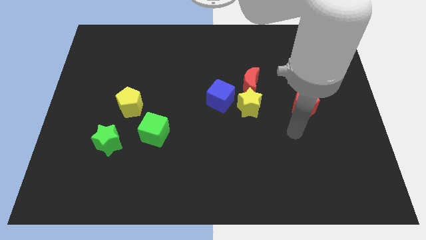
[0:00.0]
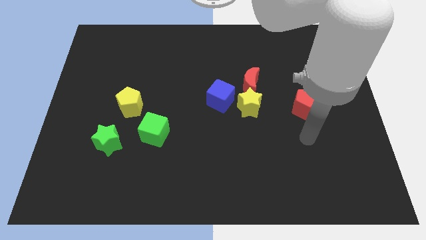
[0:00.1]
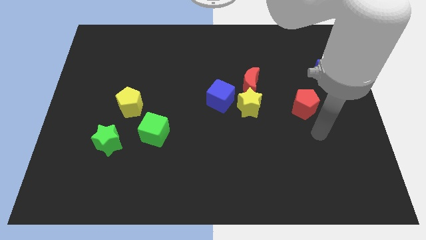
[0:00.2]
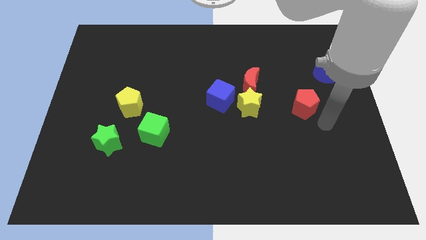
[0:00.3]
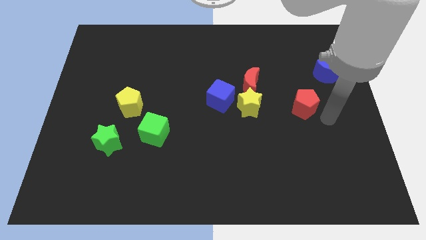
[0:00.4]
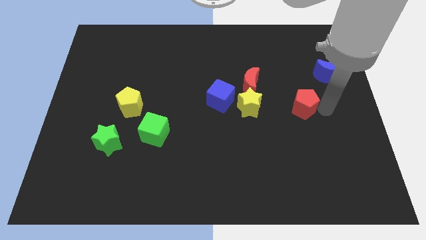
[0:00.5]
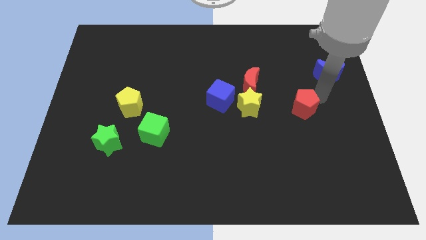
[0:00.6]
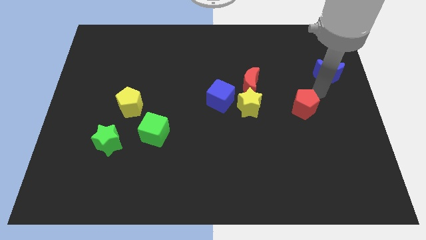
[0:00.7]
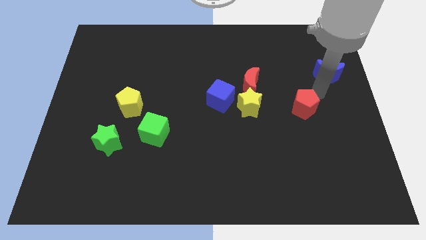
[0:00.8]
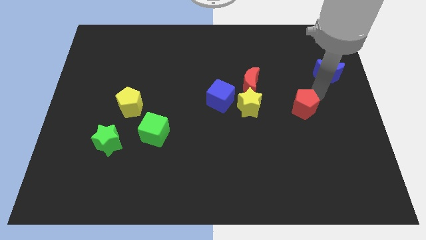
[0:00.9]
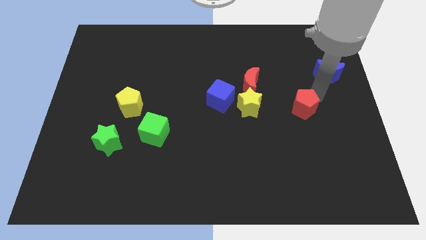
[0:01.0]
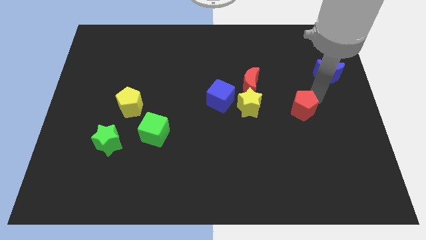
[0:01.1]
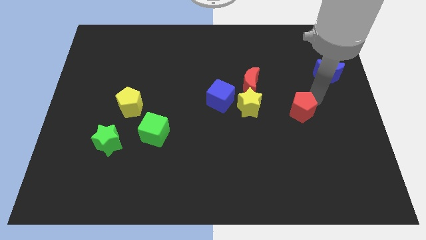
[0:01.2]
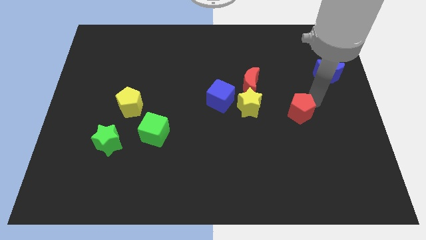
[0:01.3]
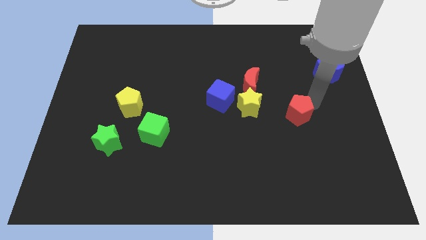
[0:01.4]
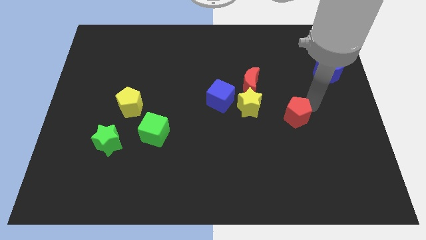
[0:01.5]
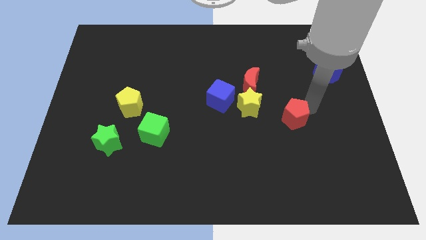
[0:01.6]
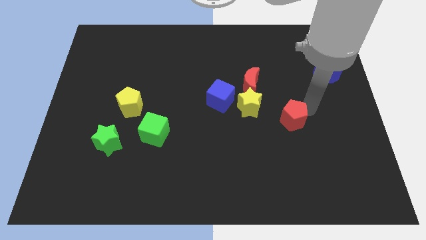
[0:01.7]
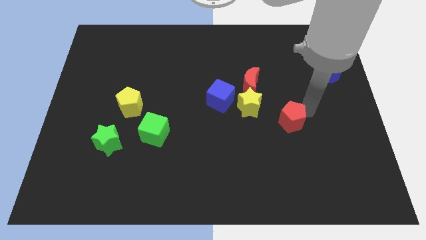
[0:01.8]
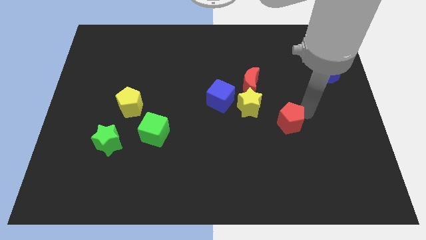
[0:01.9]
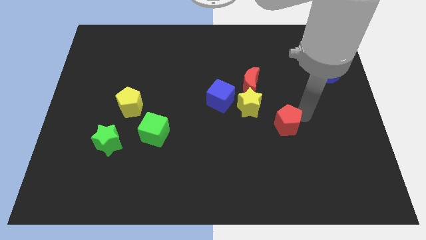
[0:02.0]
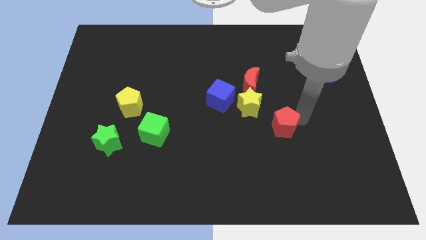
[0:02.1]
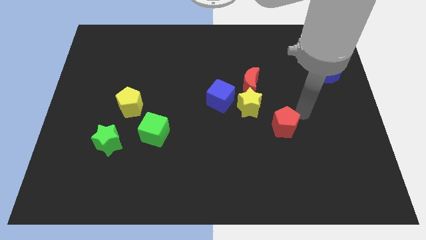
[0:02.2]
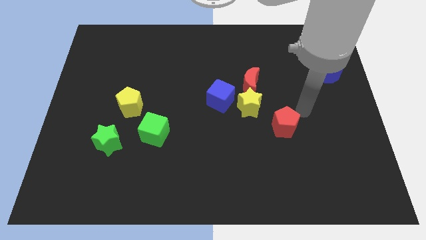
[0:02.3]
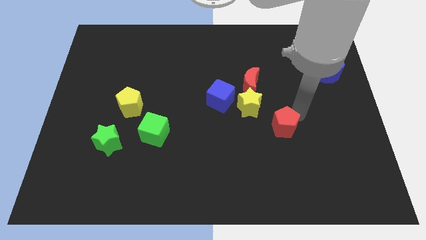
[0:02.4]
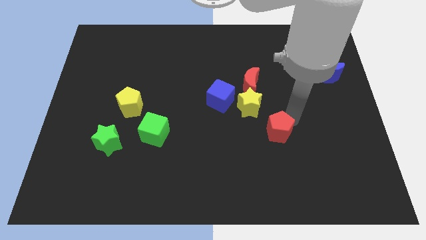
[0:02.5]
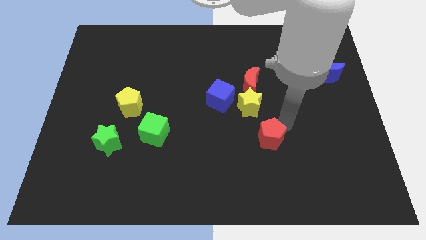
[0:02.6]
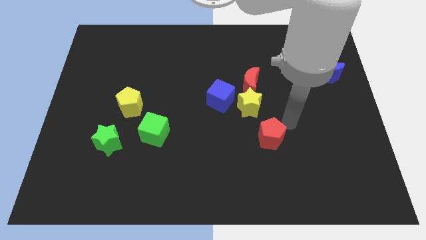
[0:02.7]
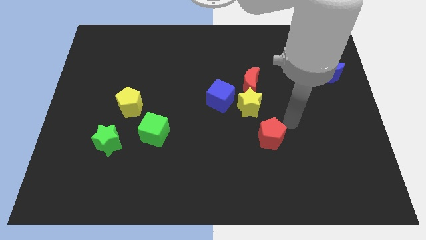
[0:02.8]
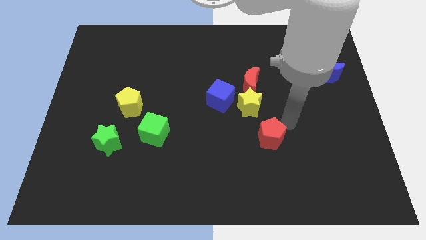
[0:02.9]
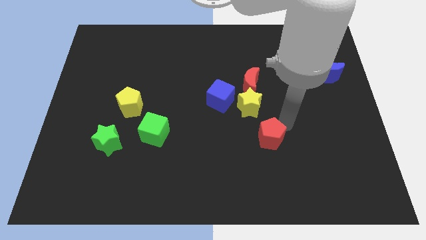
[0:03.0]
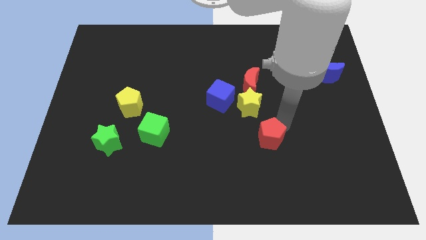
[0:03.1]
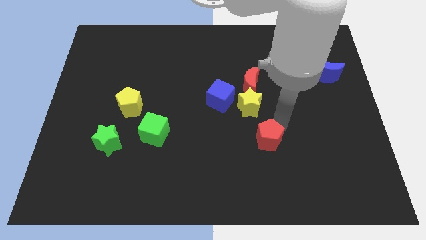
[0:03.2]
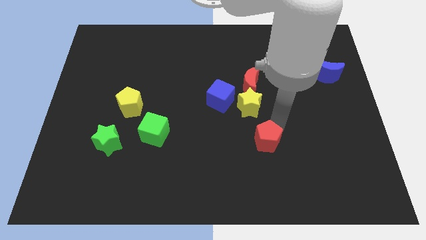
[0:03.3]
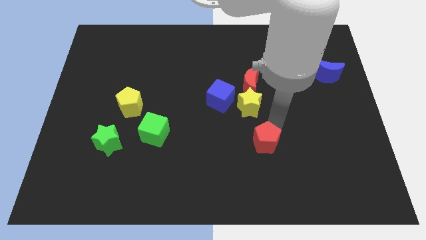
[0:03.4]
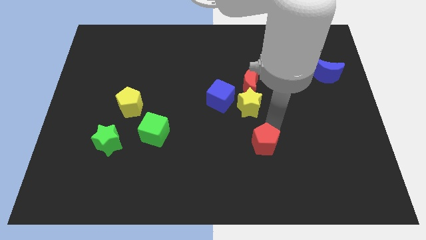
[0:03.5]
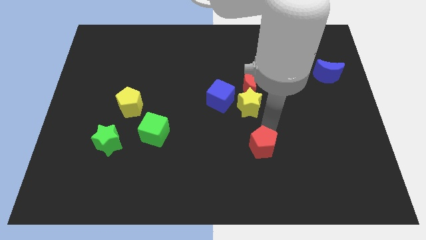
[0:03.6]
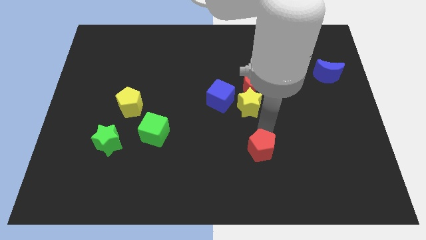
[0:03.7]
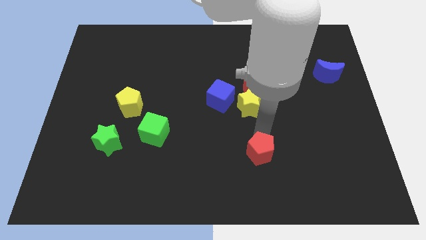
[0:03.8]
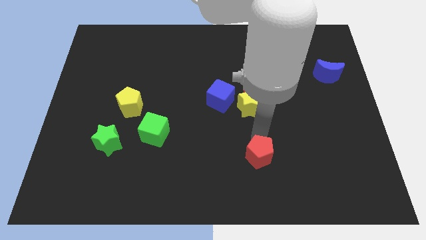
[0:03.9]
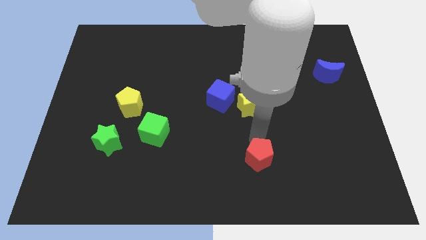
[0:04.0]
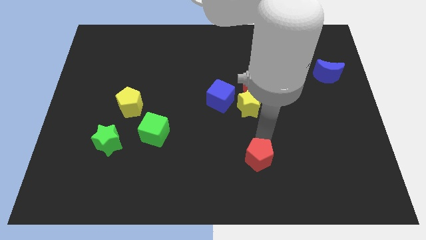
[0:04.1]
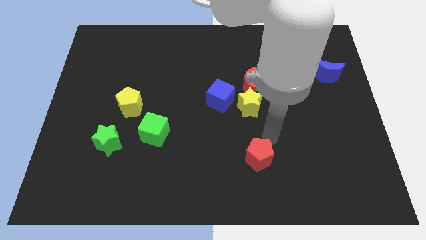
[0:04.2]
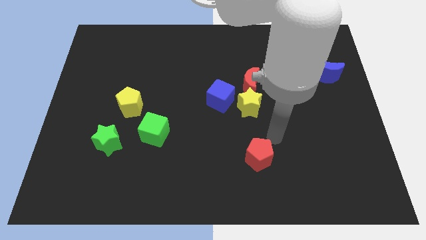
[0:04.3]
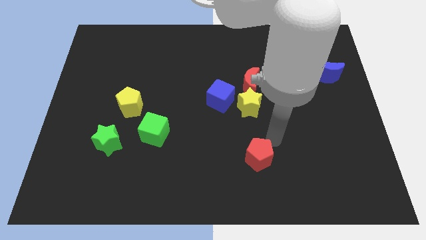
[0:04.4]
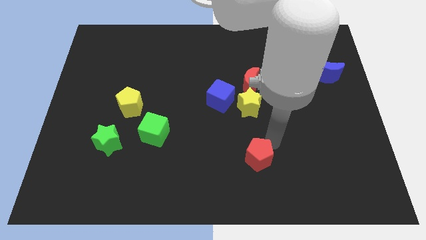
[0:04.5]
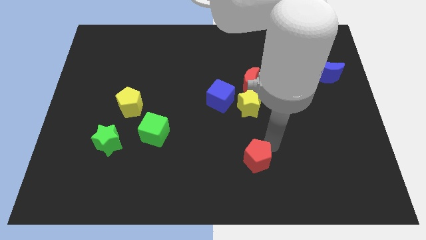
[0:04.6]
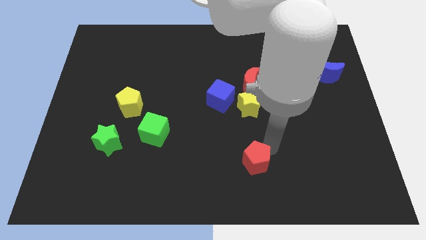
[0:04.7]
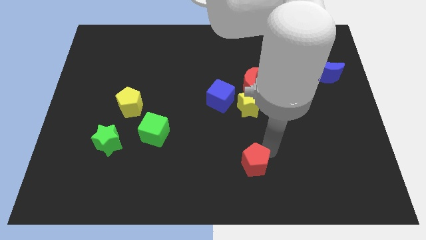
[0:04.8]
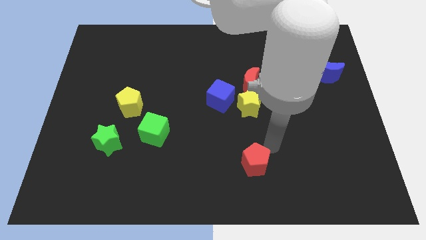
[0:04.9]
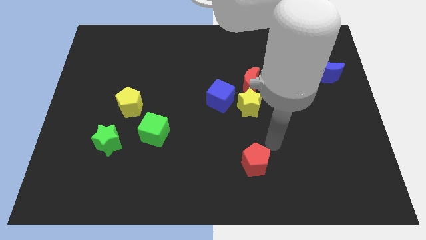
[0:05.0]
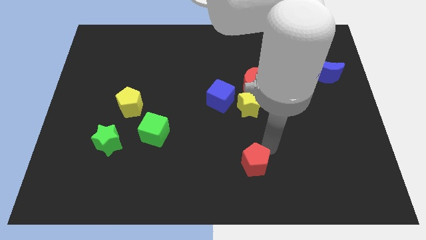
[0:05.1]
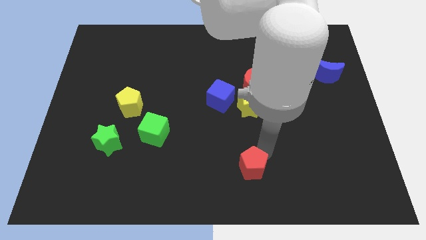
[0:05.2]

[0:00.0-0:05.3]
slide the red pentagon to the bottom side

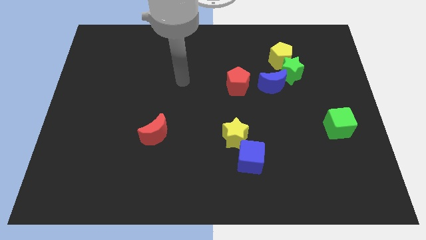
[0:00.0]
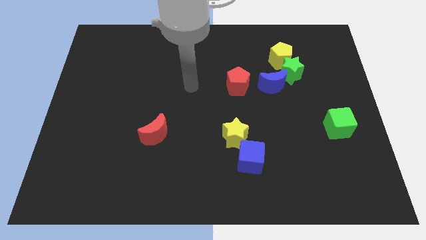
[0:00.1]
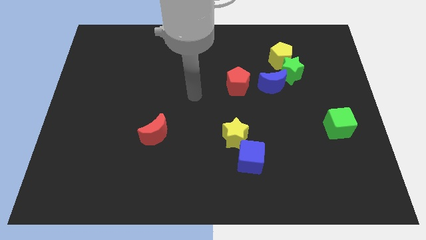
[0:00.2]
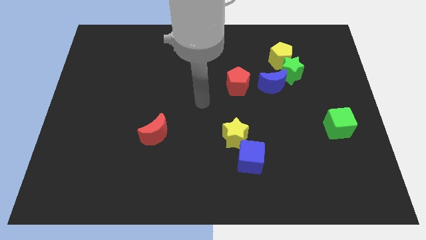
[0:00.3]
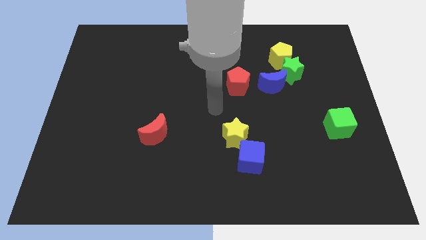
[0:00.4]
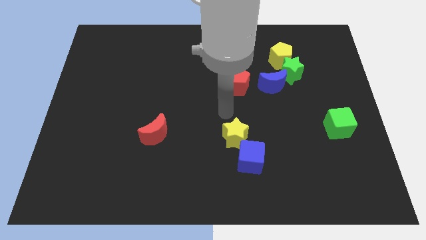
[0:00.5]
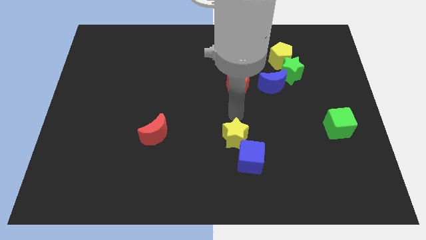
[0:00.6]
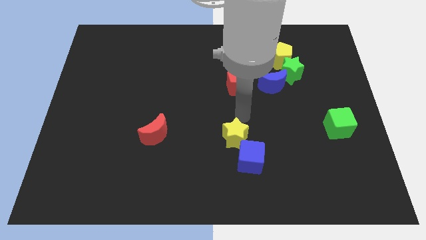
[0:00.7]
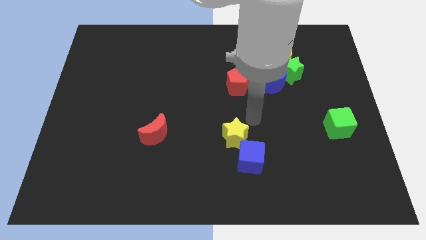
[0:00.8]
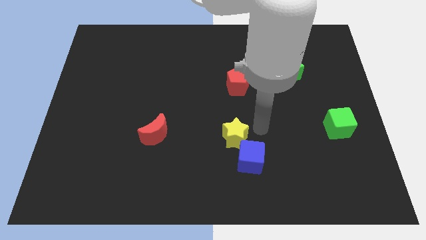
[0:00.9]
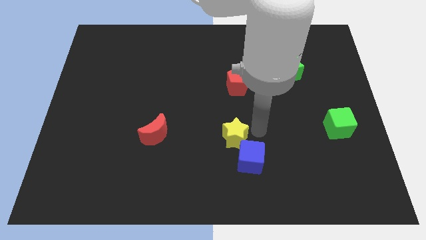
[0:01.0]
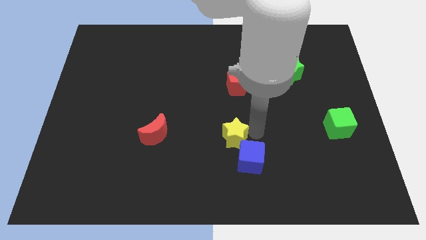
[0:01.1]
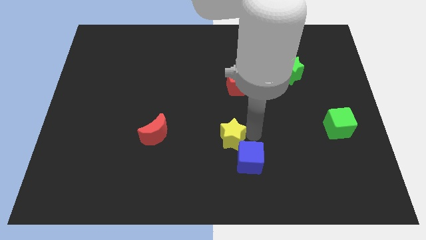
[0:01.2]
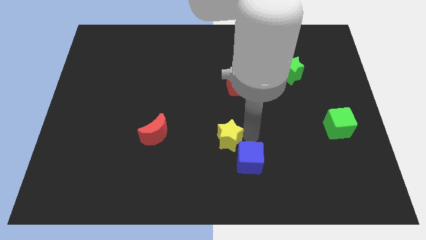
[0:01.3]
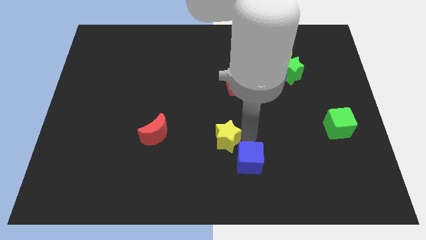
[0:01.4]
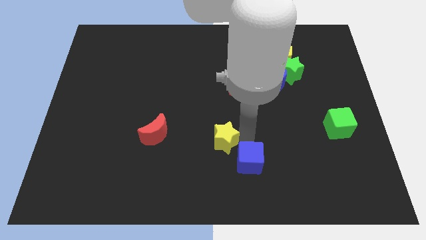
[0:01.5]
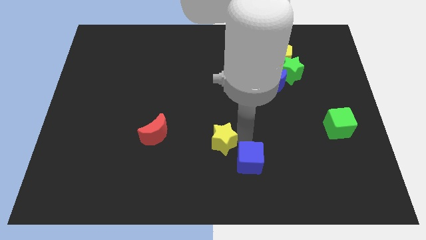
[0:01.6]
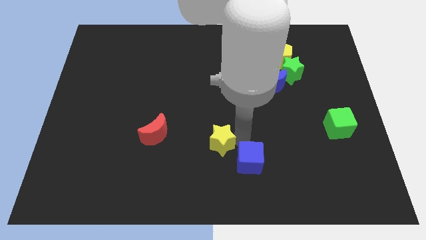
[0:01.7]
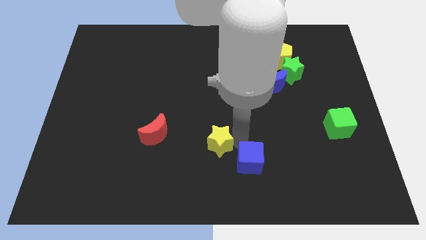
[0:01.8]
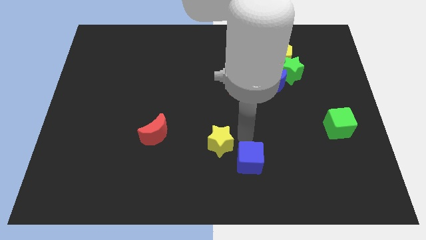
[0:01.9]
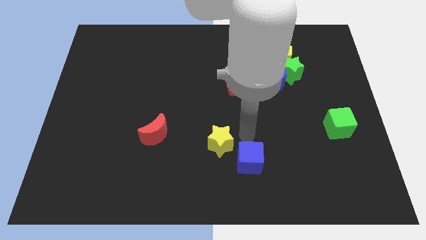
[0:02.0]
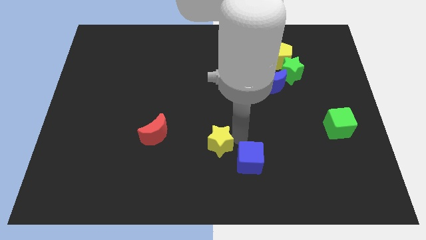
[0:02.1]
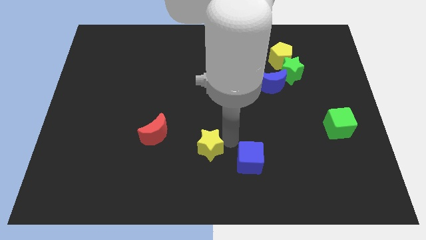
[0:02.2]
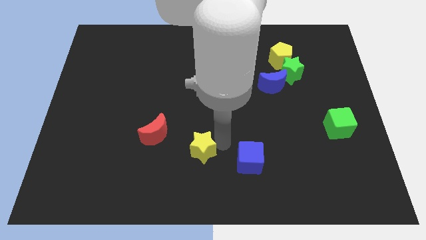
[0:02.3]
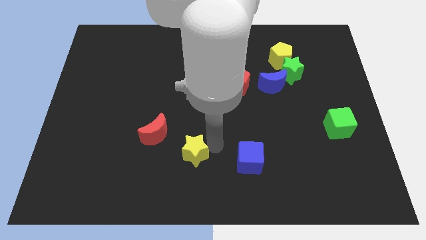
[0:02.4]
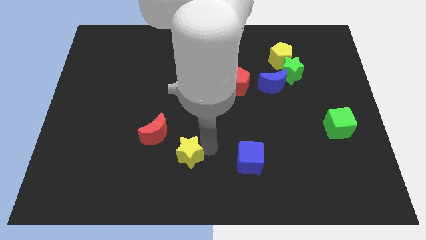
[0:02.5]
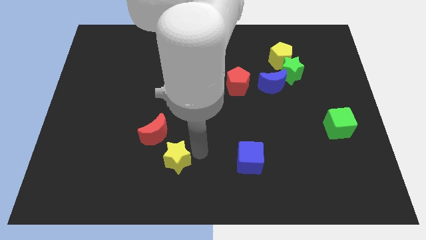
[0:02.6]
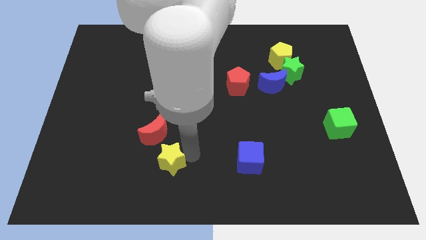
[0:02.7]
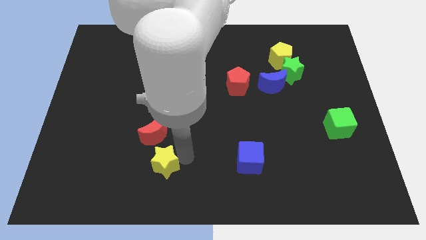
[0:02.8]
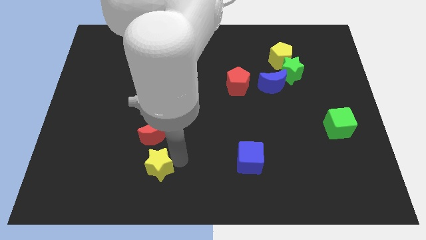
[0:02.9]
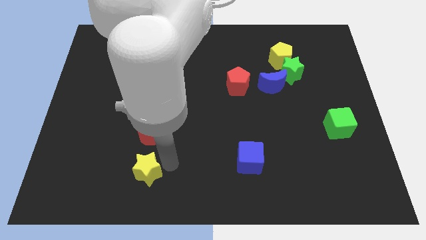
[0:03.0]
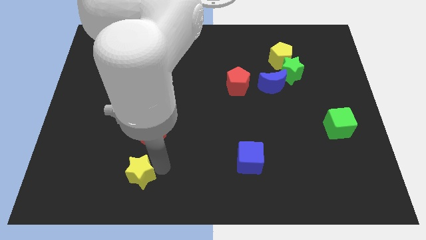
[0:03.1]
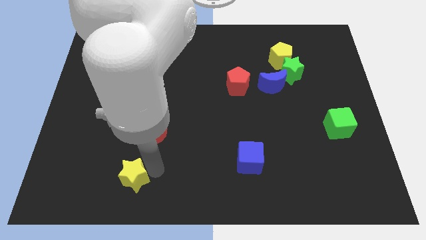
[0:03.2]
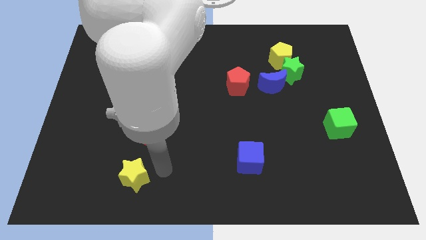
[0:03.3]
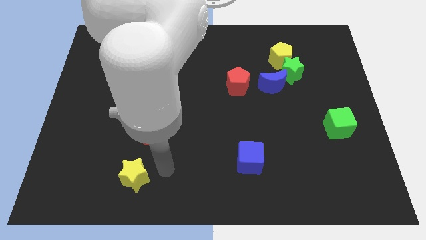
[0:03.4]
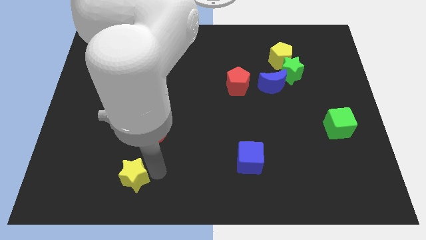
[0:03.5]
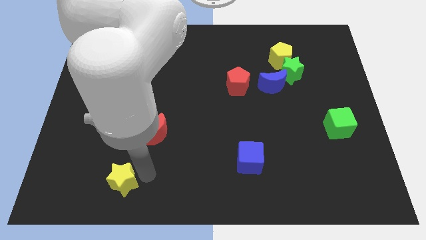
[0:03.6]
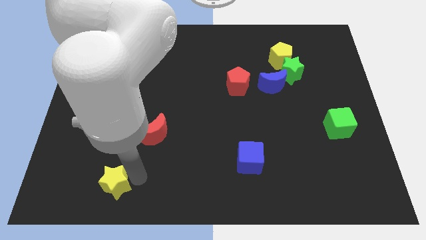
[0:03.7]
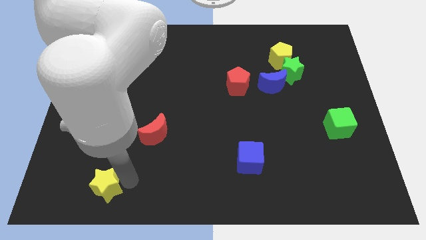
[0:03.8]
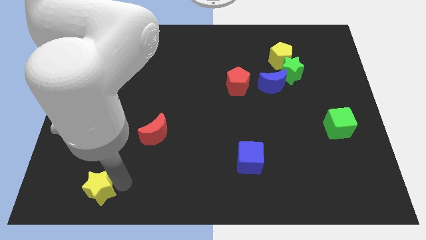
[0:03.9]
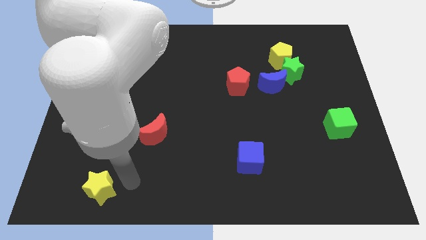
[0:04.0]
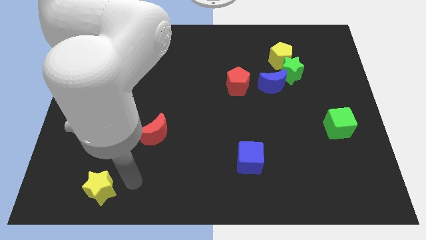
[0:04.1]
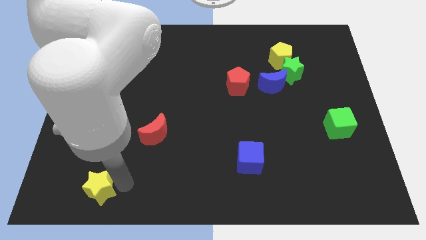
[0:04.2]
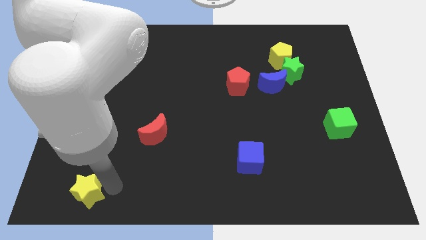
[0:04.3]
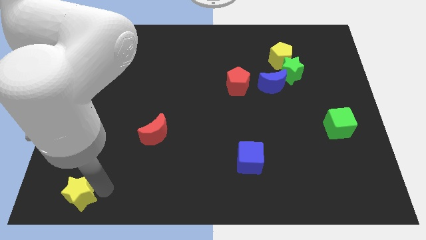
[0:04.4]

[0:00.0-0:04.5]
move the yellow star to the lower left corner
